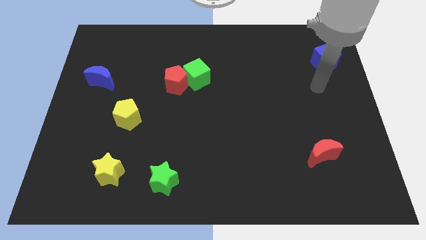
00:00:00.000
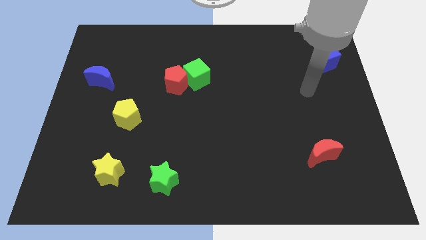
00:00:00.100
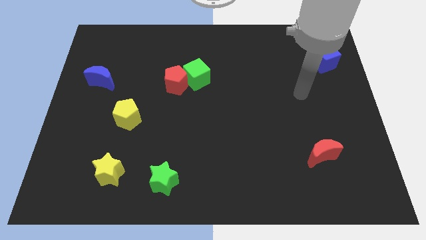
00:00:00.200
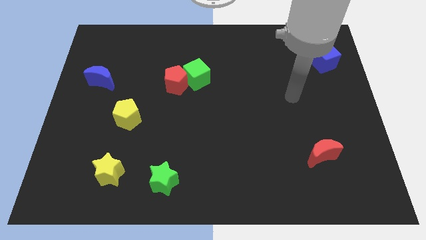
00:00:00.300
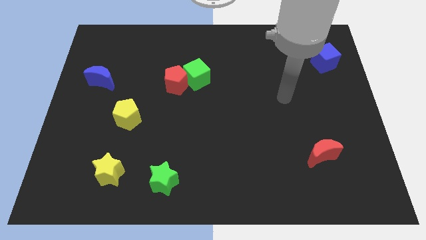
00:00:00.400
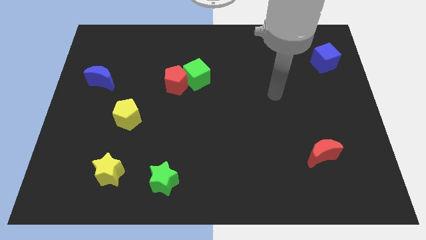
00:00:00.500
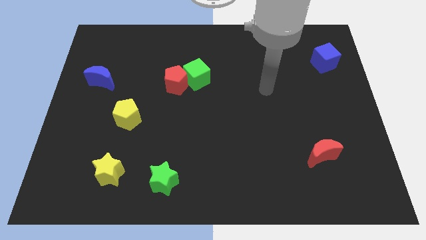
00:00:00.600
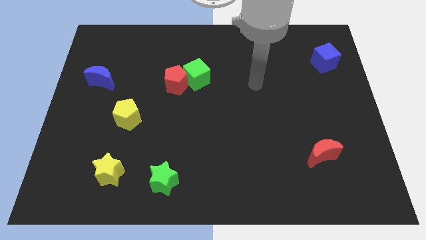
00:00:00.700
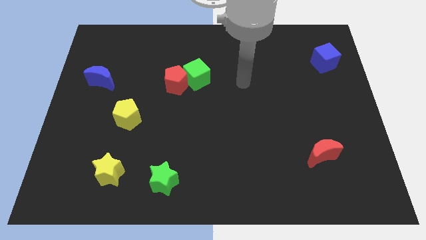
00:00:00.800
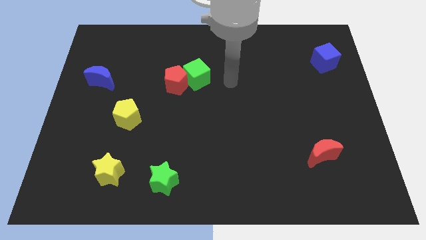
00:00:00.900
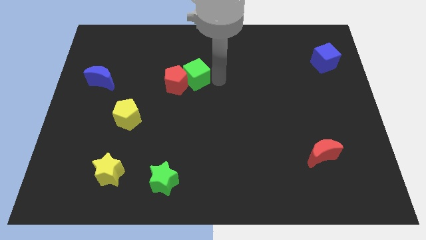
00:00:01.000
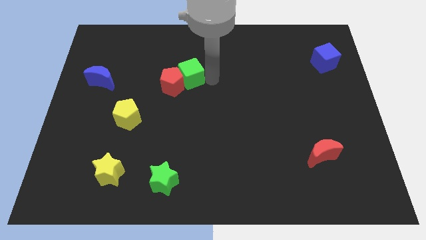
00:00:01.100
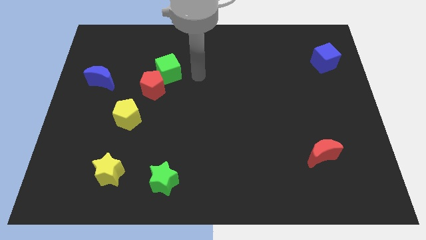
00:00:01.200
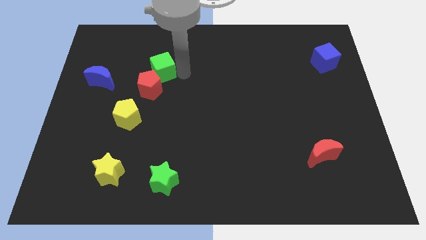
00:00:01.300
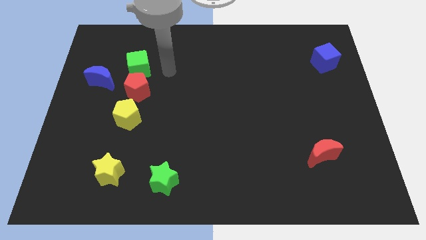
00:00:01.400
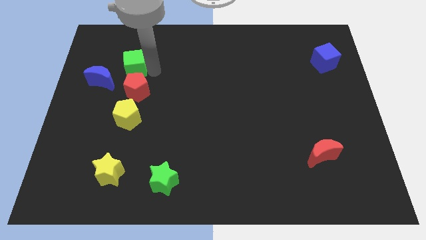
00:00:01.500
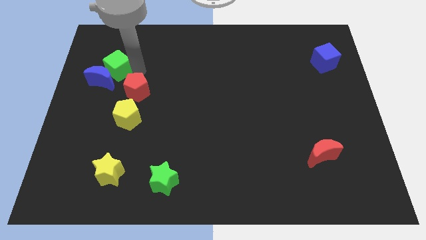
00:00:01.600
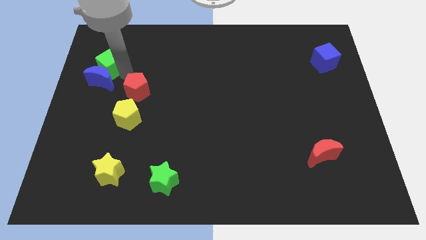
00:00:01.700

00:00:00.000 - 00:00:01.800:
move the red pentagon away from the green cube

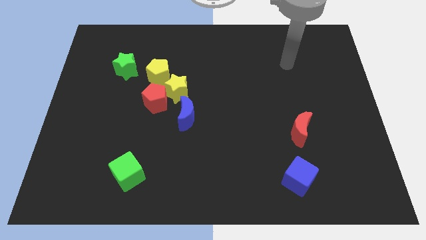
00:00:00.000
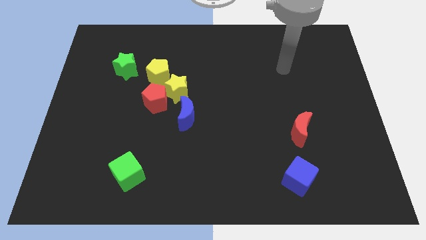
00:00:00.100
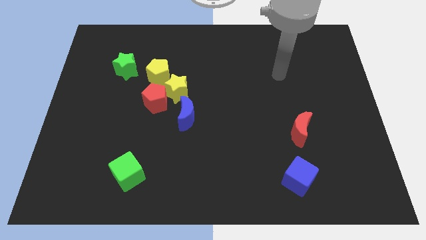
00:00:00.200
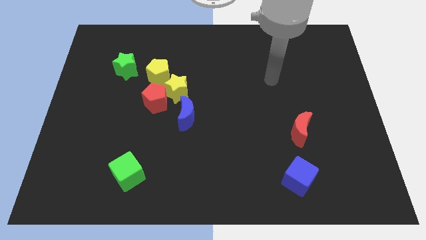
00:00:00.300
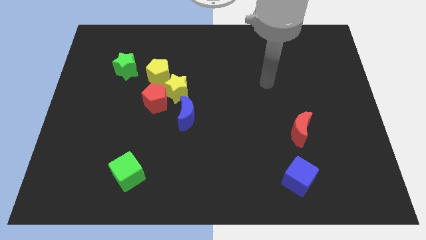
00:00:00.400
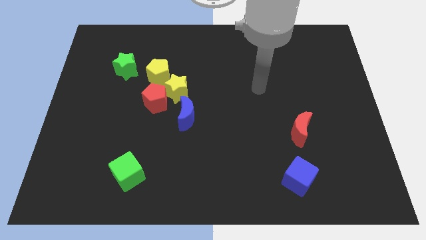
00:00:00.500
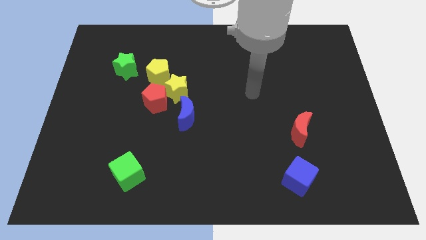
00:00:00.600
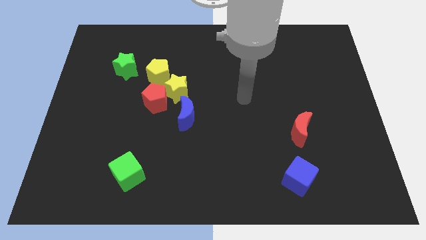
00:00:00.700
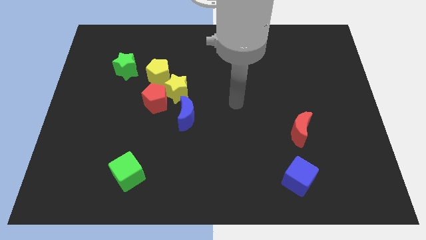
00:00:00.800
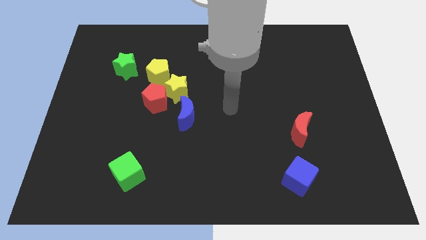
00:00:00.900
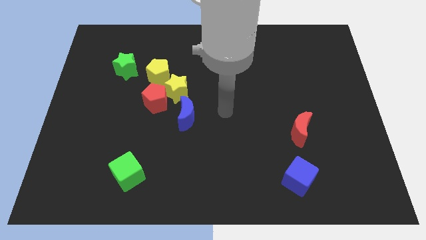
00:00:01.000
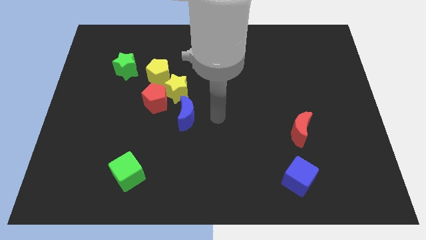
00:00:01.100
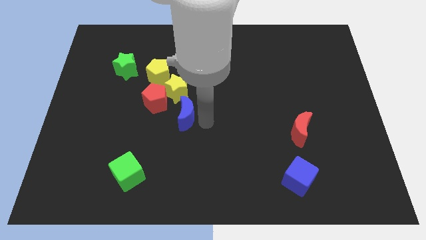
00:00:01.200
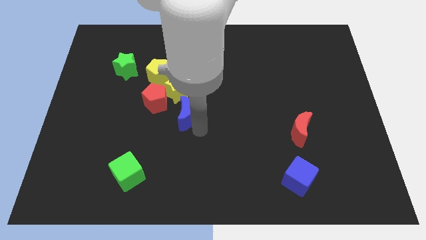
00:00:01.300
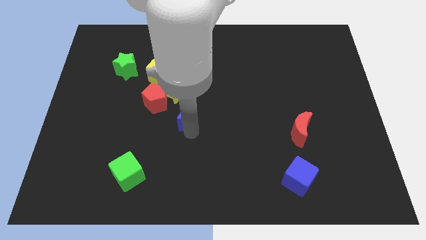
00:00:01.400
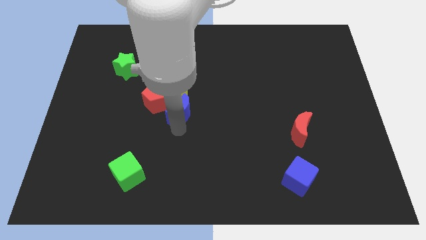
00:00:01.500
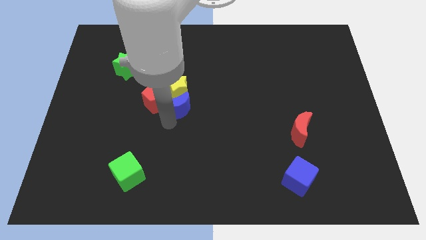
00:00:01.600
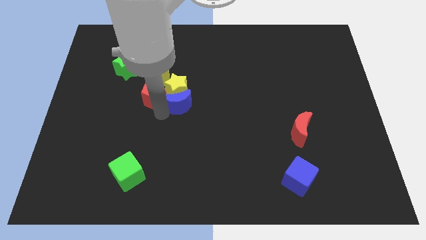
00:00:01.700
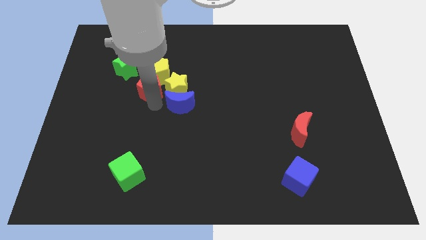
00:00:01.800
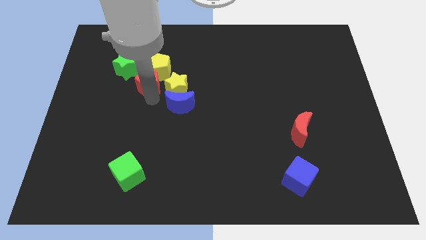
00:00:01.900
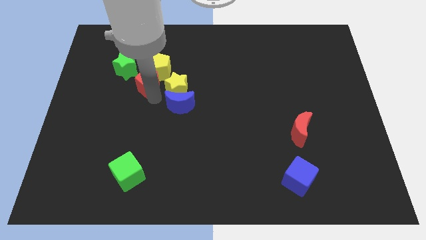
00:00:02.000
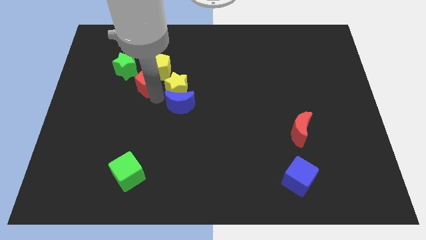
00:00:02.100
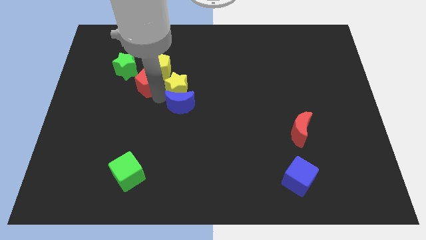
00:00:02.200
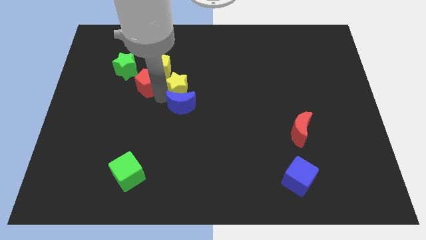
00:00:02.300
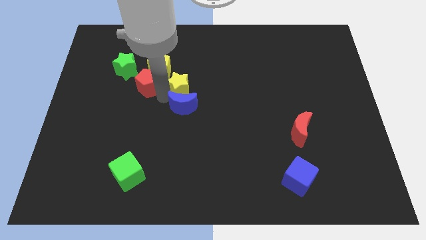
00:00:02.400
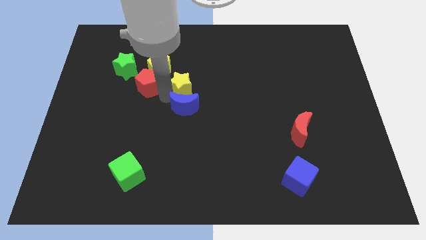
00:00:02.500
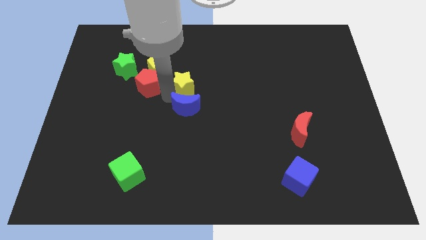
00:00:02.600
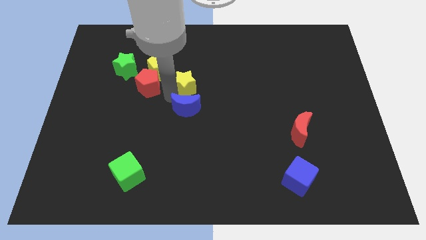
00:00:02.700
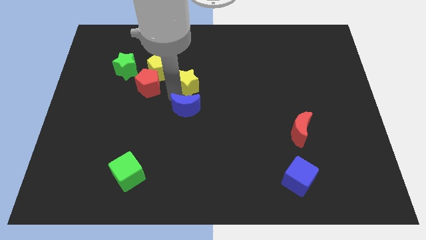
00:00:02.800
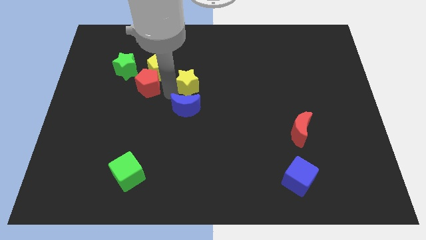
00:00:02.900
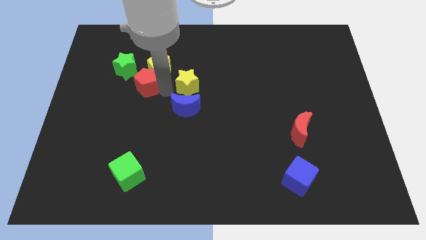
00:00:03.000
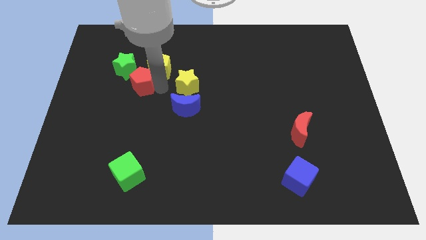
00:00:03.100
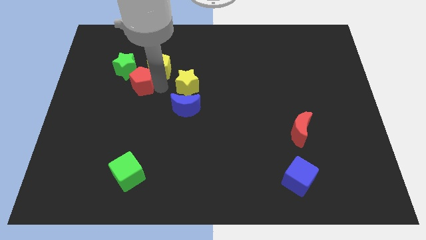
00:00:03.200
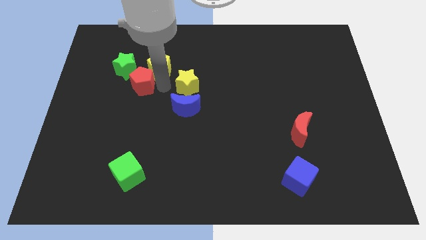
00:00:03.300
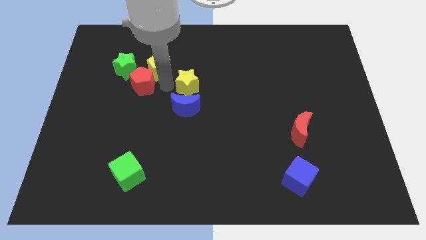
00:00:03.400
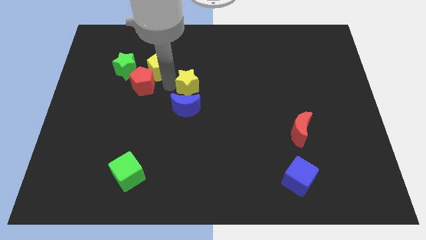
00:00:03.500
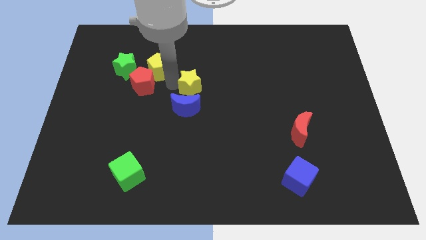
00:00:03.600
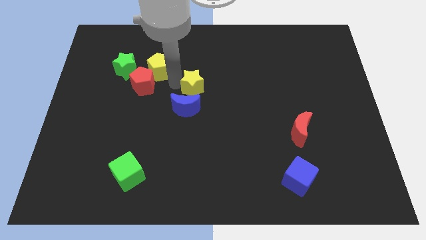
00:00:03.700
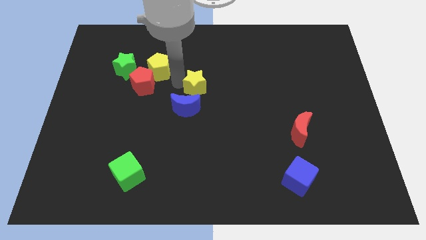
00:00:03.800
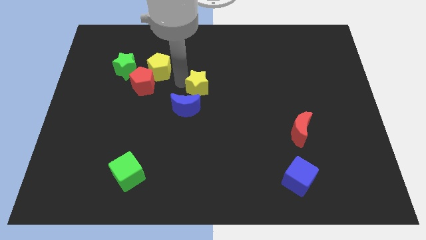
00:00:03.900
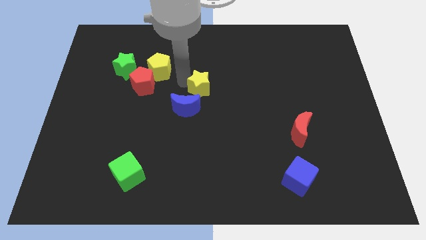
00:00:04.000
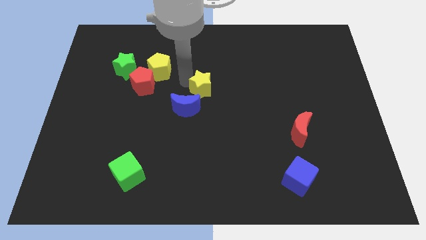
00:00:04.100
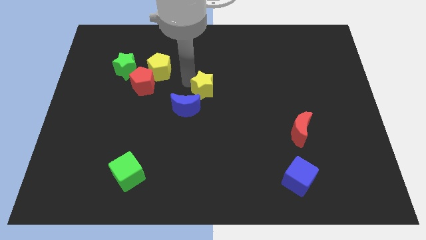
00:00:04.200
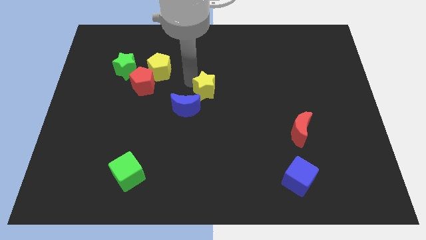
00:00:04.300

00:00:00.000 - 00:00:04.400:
move the yellow star away from the red pentagon, yellow pentagon, and blue moon

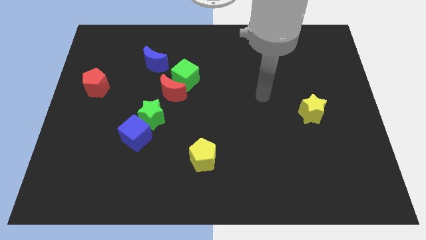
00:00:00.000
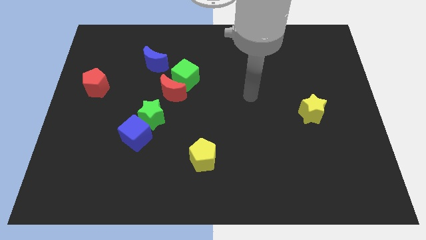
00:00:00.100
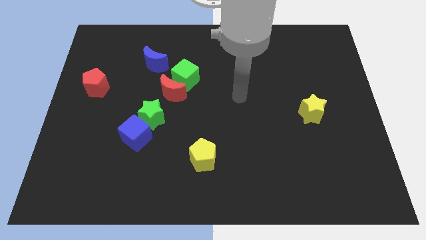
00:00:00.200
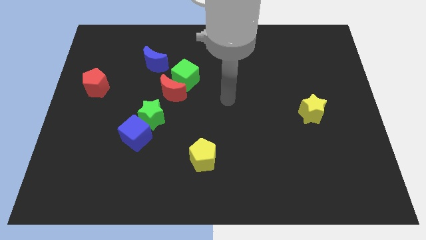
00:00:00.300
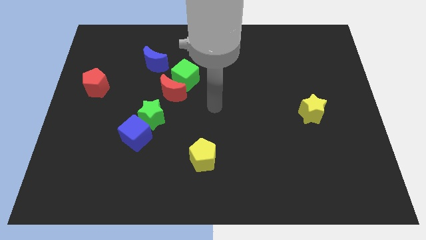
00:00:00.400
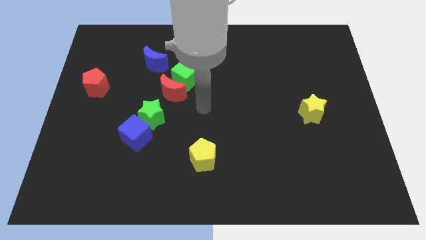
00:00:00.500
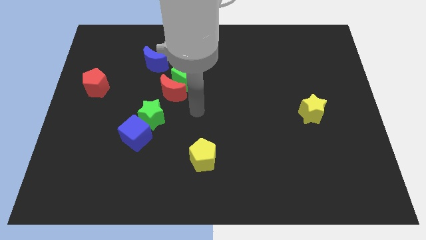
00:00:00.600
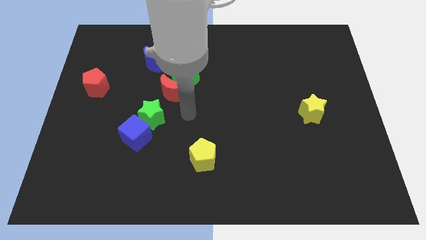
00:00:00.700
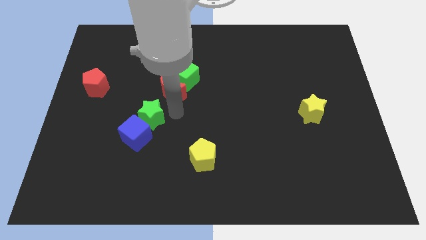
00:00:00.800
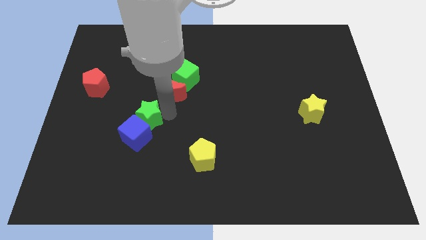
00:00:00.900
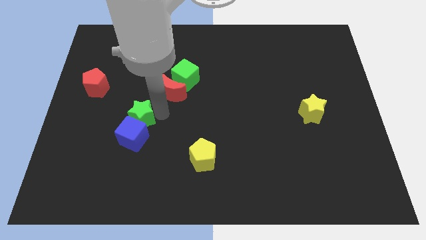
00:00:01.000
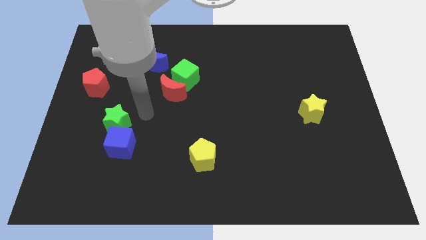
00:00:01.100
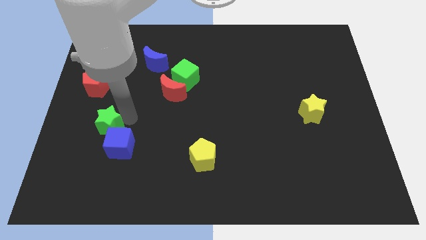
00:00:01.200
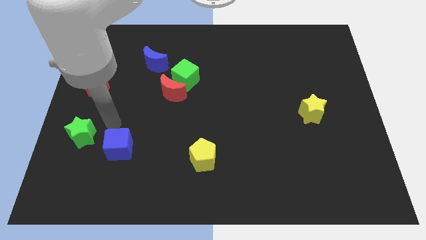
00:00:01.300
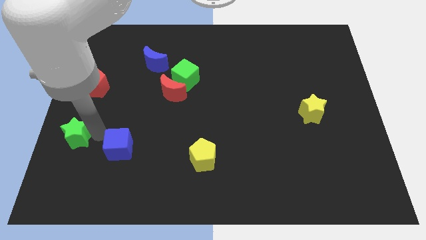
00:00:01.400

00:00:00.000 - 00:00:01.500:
separate the blue cube from the green star

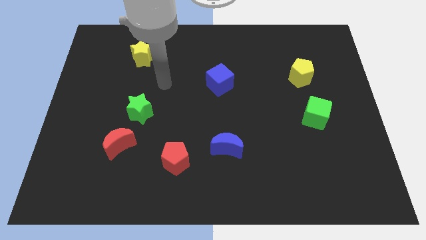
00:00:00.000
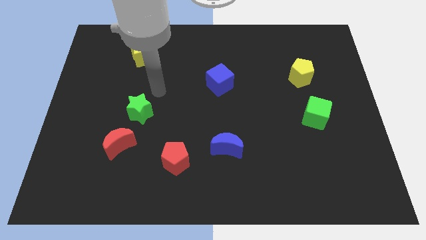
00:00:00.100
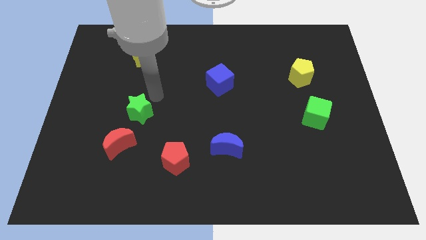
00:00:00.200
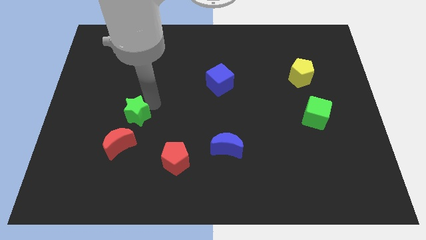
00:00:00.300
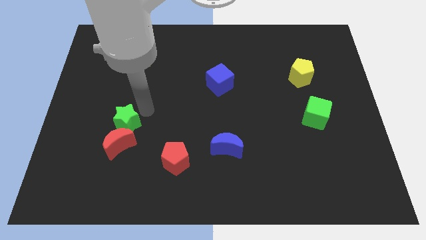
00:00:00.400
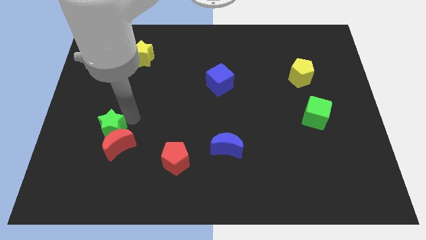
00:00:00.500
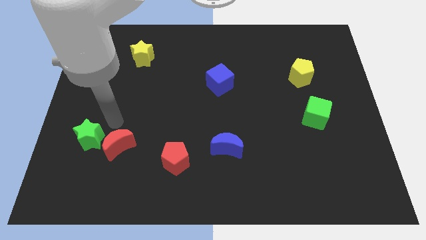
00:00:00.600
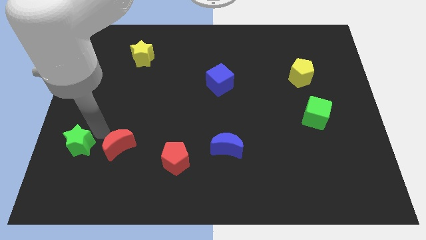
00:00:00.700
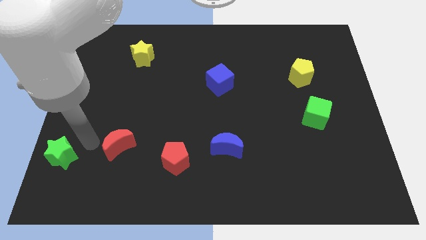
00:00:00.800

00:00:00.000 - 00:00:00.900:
move the red moon away from the green star

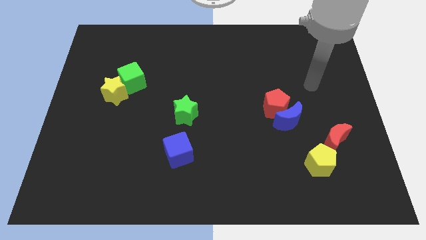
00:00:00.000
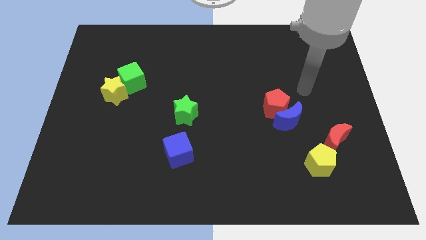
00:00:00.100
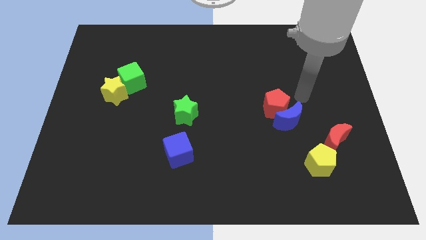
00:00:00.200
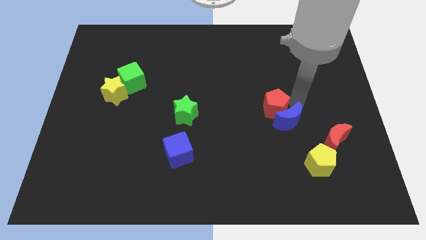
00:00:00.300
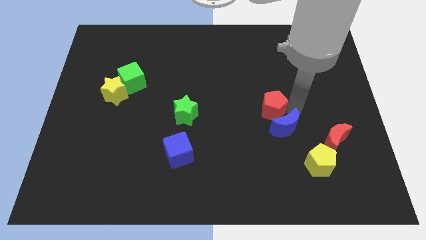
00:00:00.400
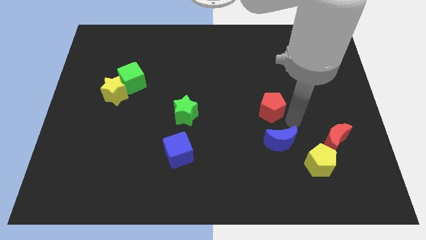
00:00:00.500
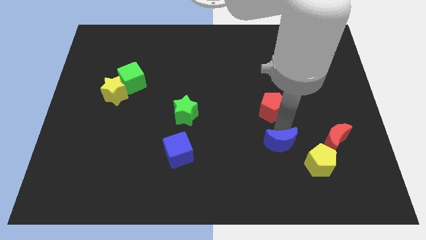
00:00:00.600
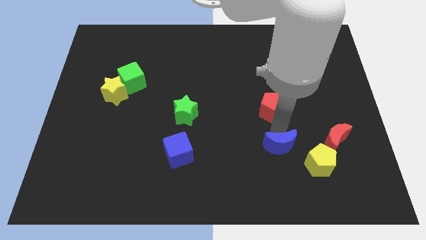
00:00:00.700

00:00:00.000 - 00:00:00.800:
separate the red pentagon from the blue moon
